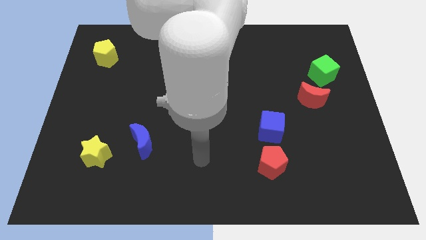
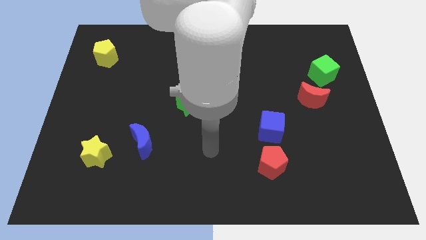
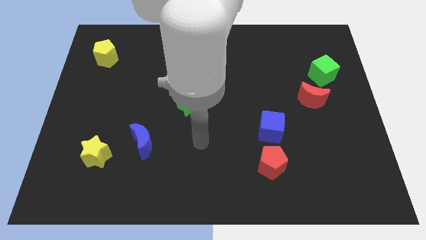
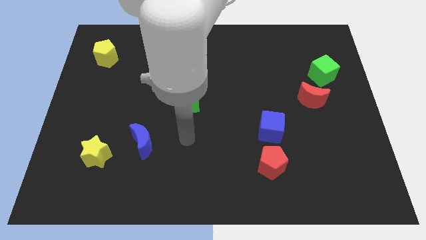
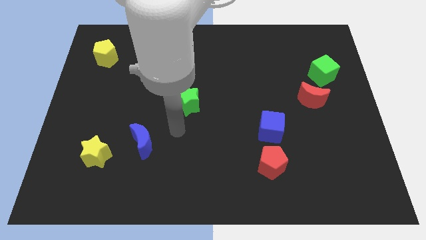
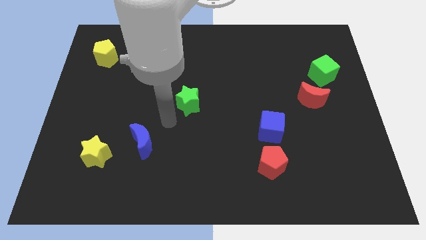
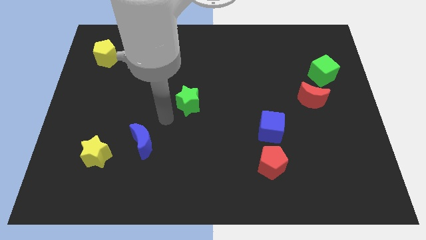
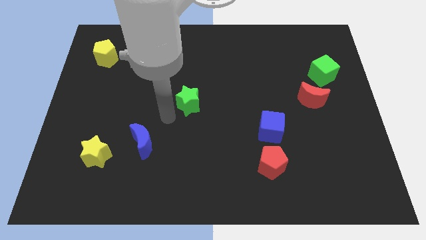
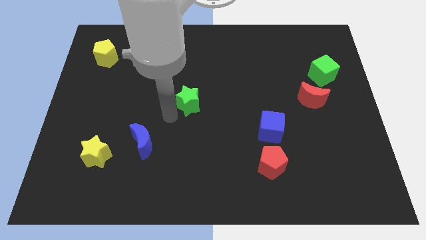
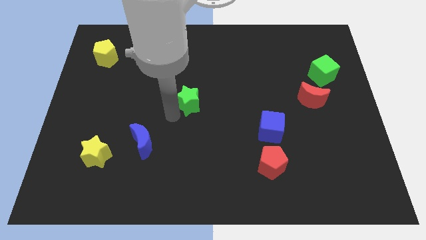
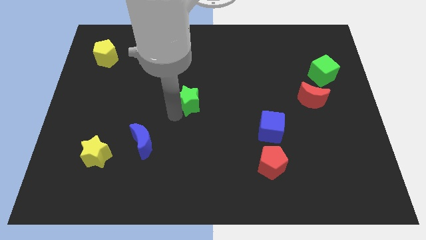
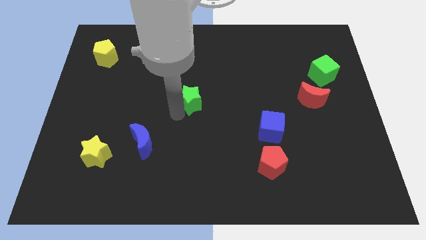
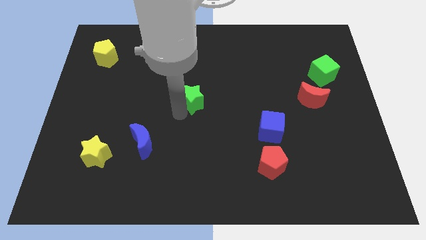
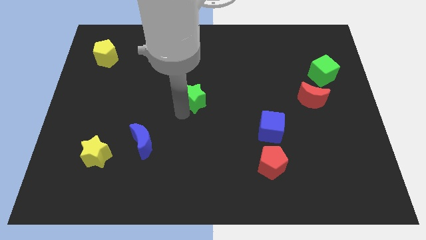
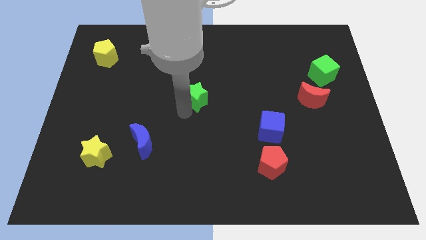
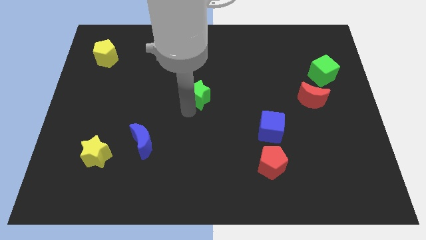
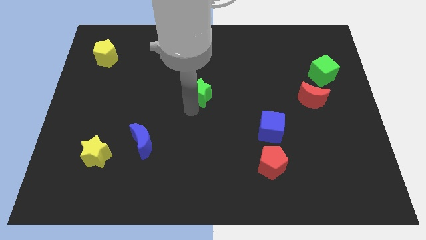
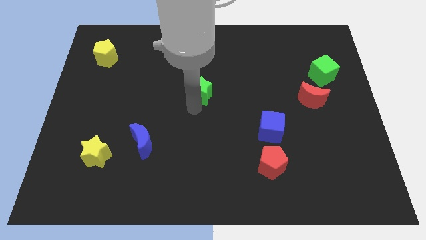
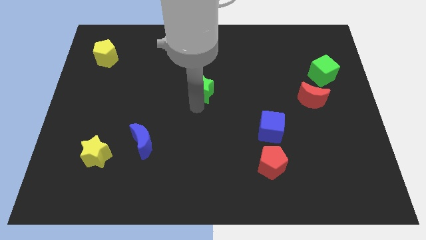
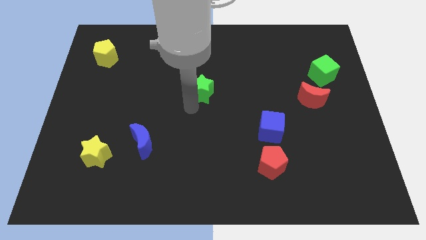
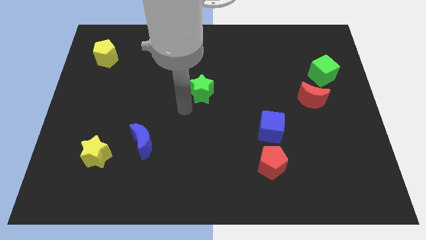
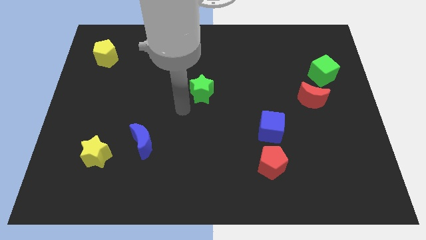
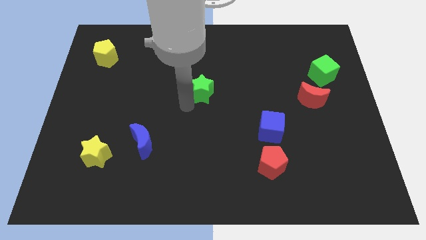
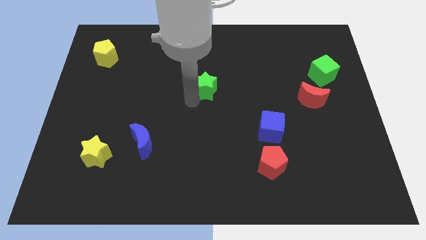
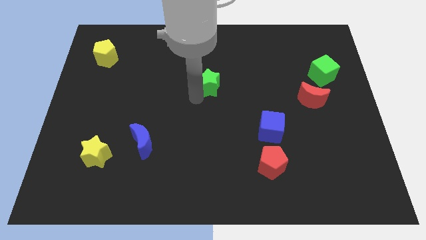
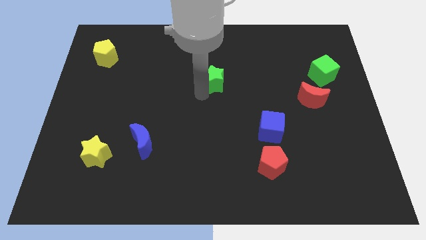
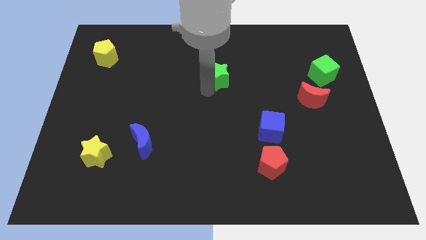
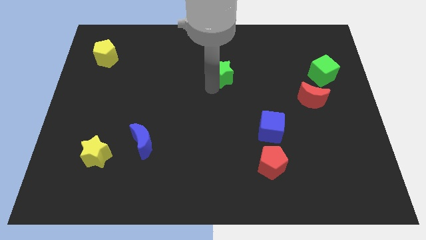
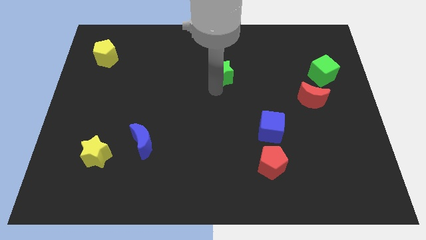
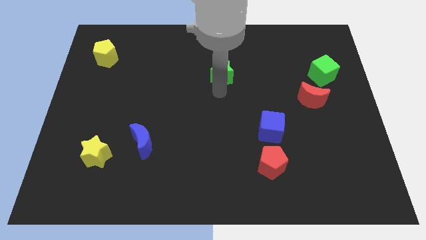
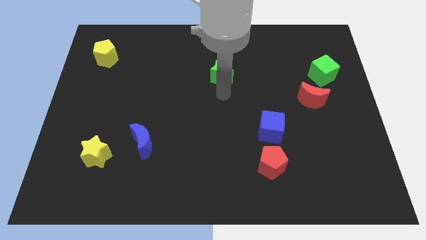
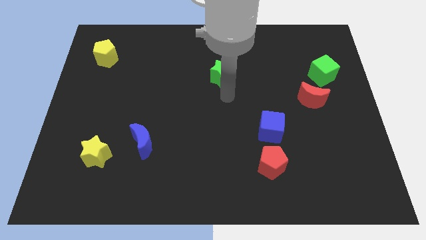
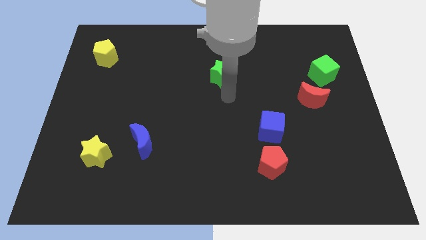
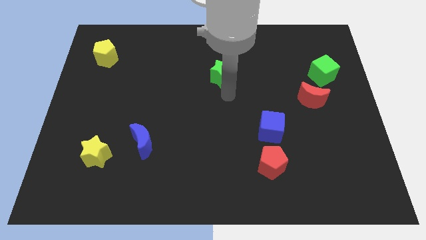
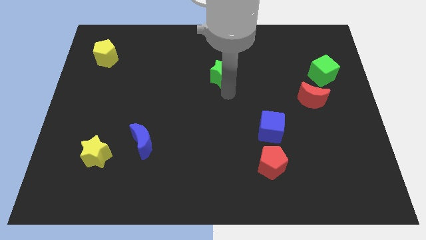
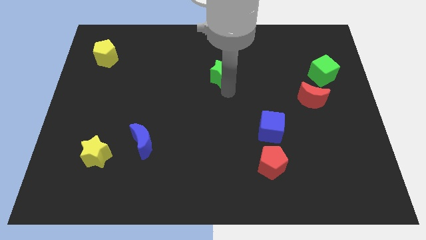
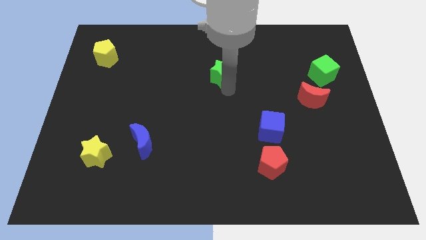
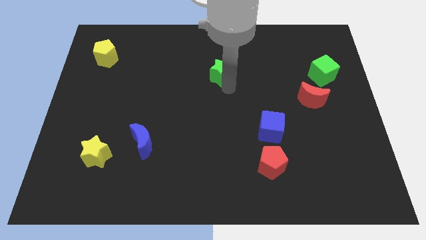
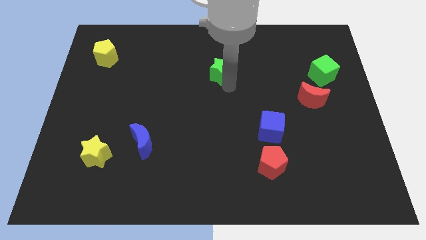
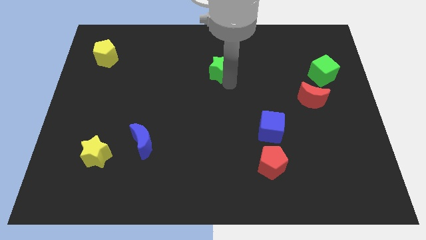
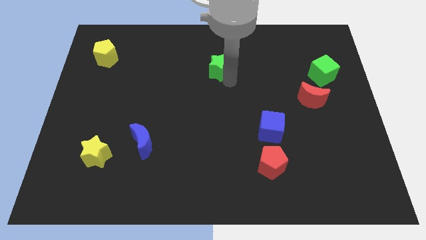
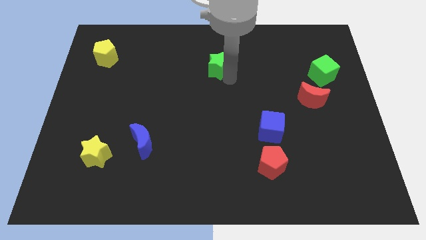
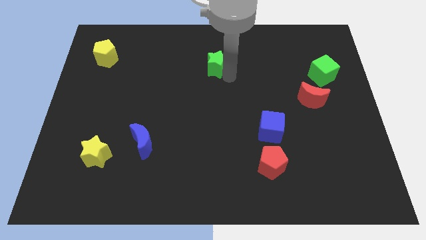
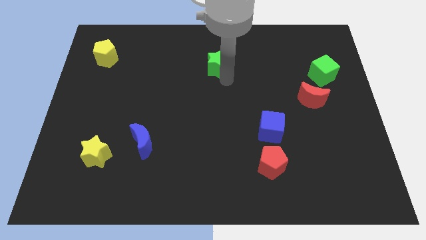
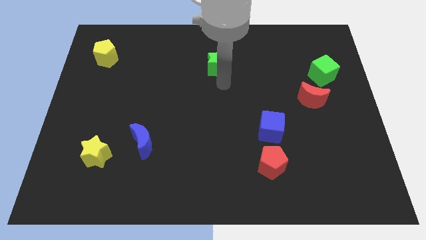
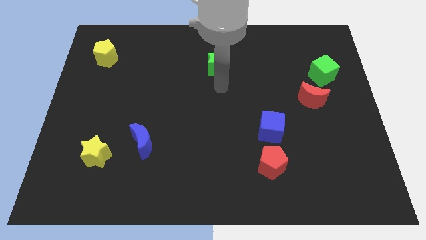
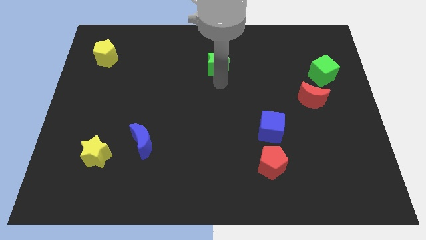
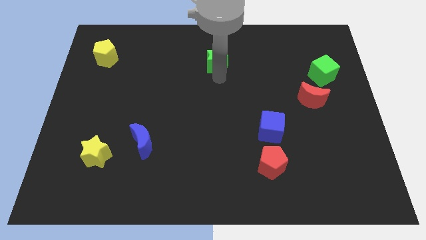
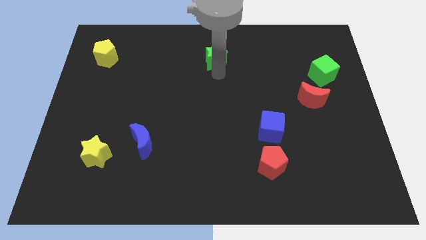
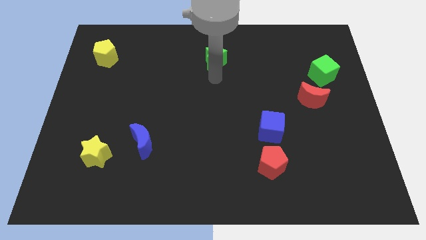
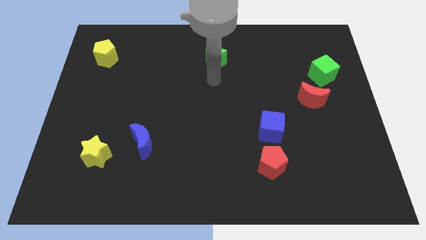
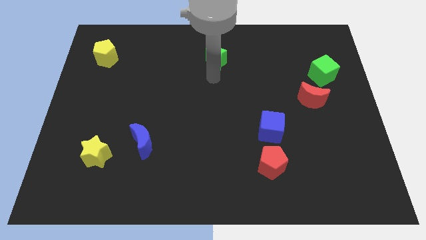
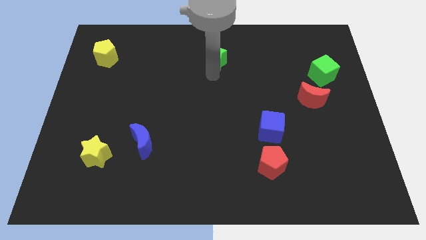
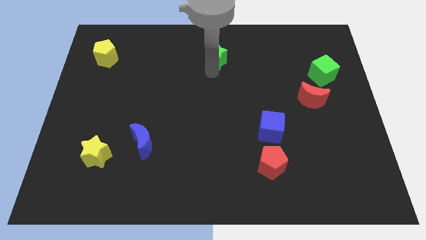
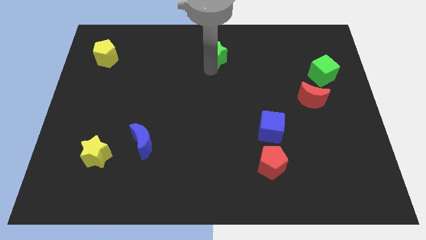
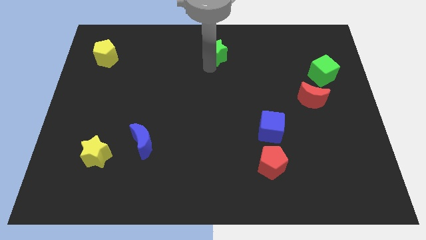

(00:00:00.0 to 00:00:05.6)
push the green star to the top

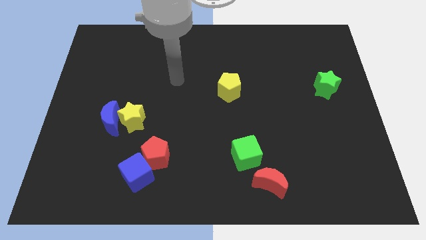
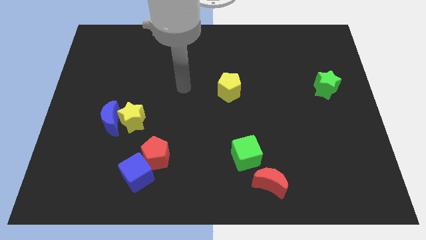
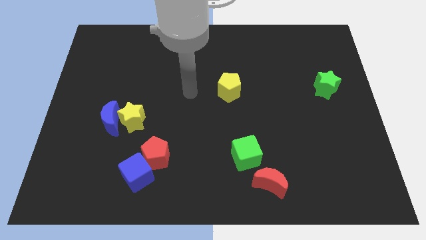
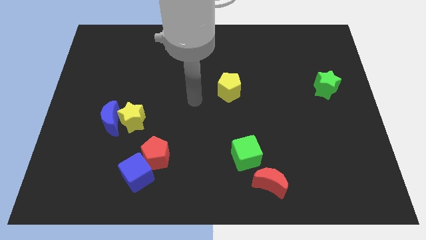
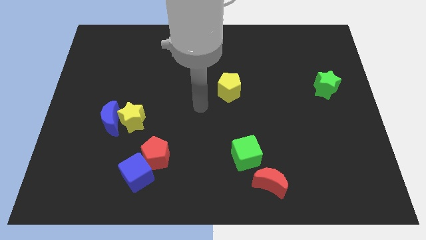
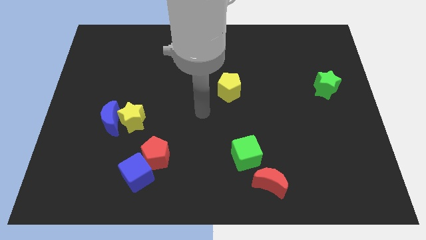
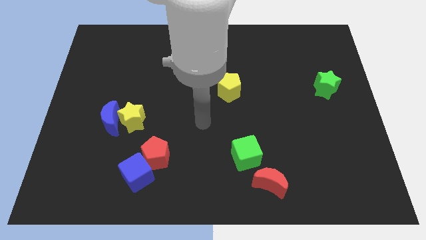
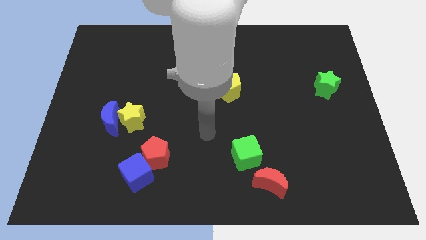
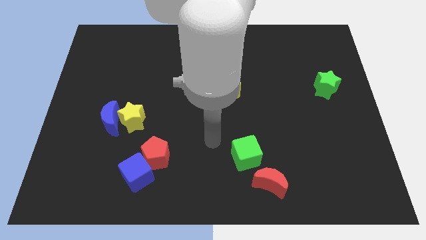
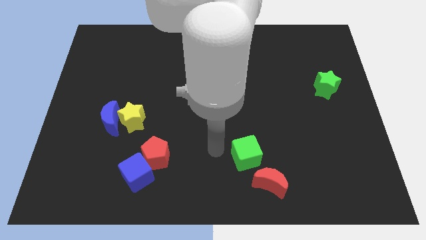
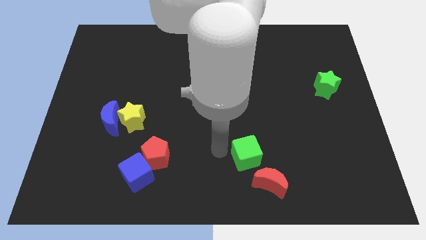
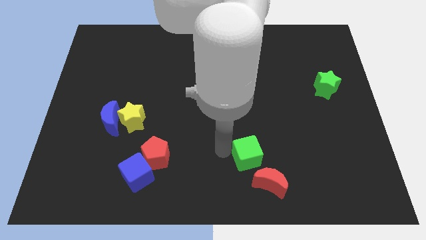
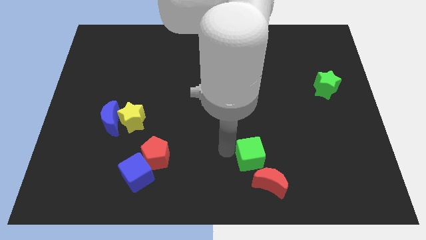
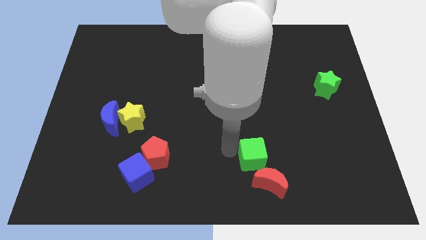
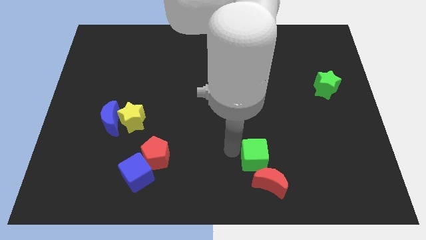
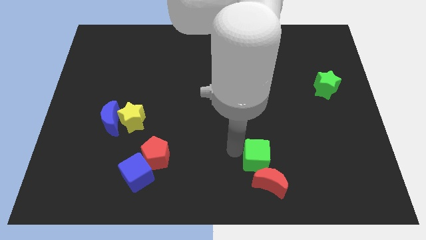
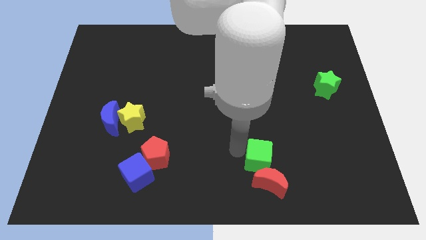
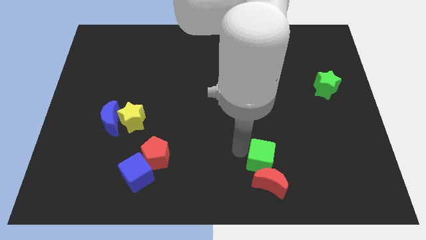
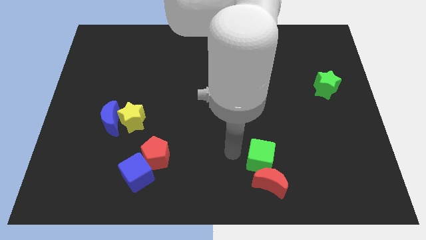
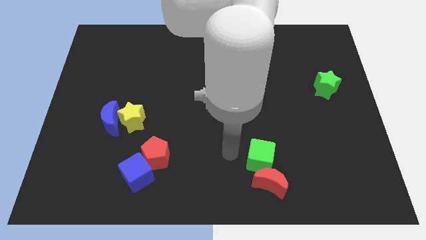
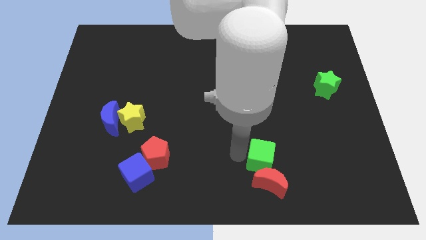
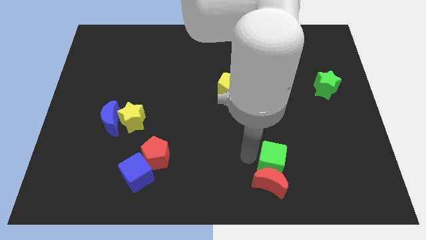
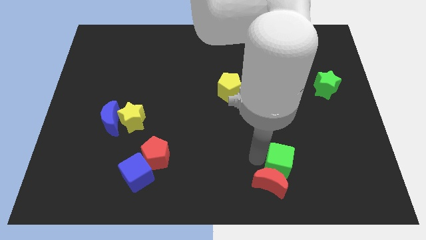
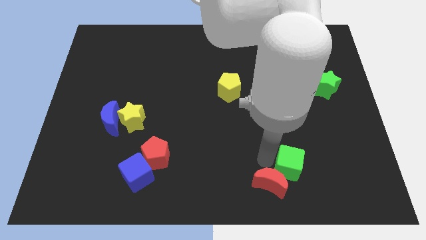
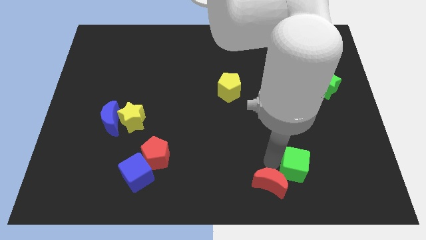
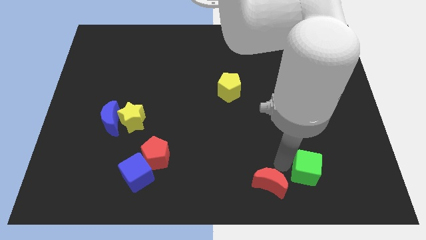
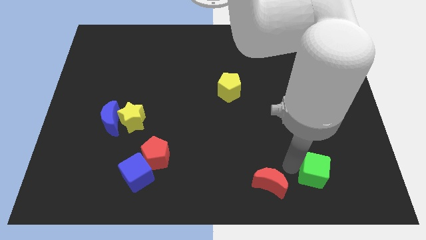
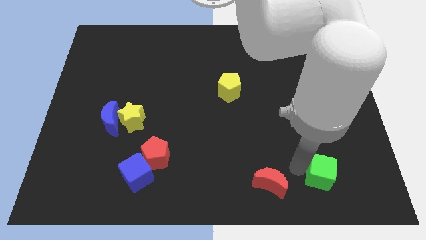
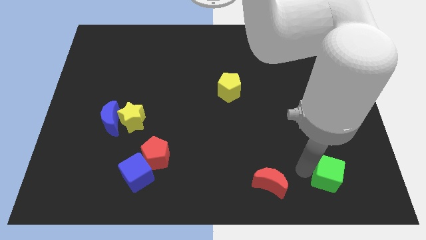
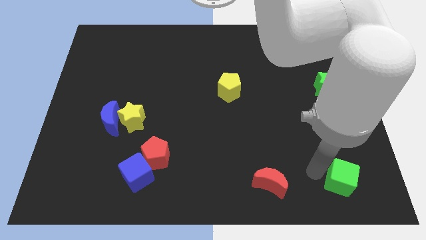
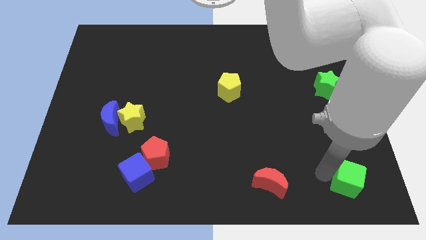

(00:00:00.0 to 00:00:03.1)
push the green cube to the bottom right corner
